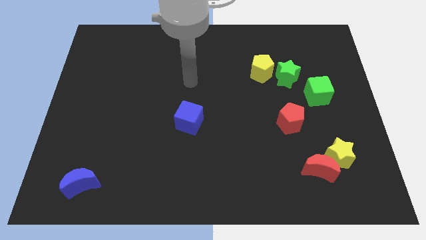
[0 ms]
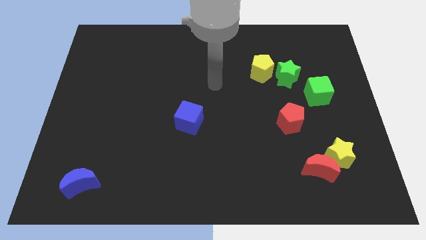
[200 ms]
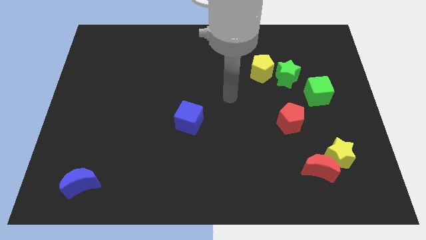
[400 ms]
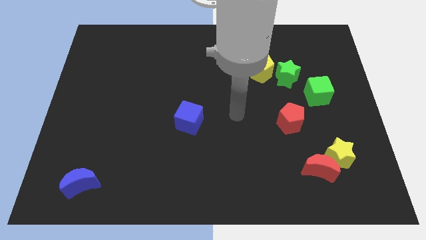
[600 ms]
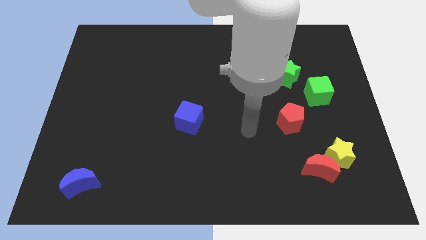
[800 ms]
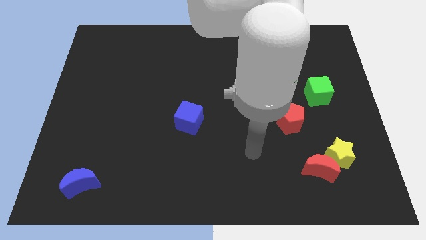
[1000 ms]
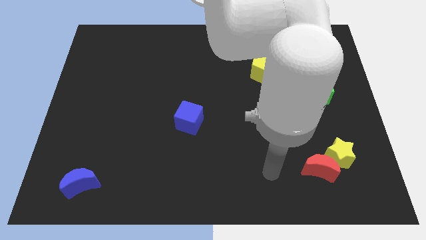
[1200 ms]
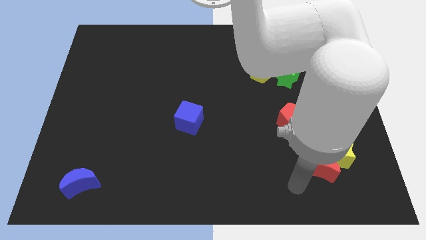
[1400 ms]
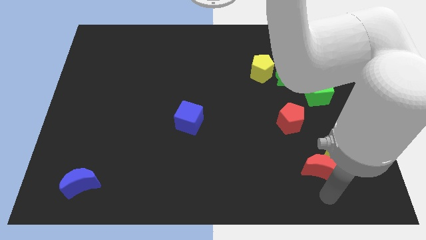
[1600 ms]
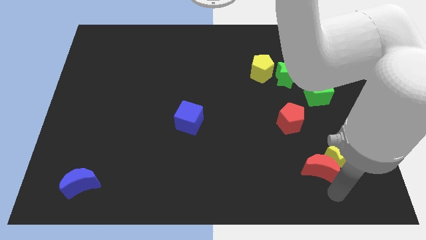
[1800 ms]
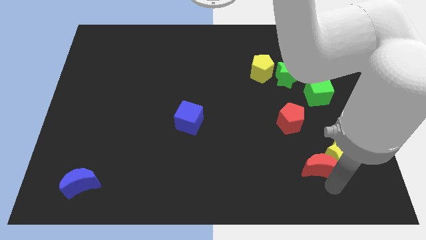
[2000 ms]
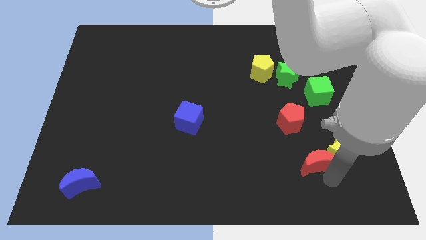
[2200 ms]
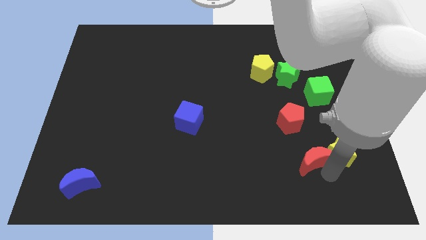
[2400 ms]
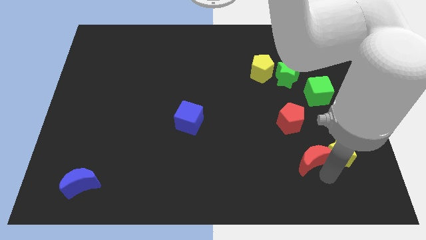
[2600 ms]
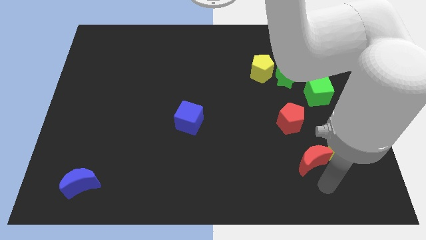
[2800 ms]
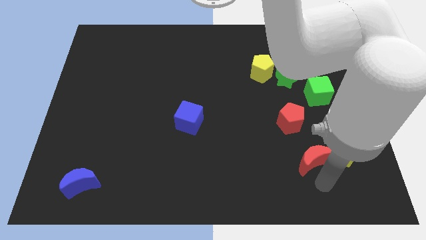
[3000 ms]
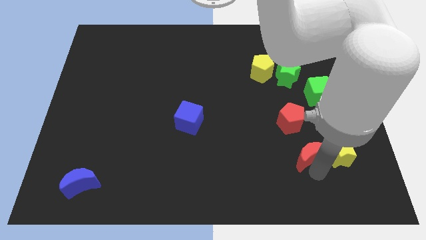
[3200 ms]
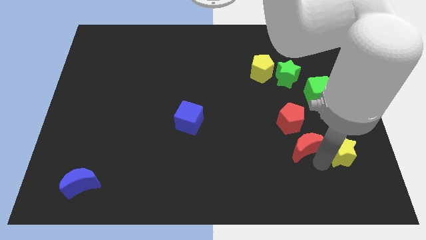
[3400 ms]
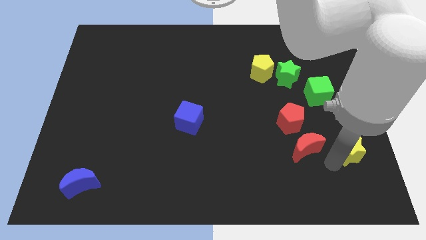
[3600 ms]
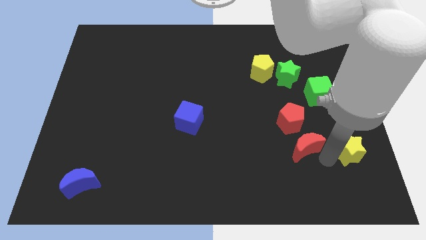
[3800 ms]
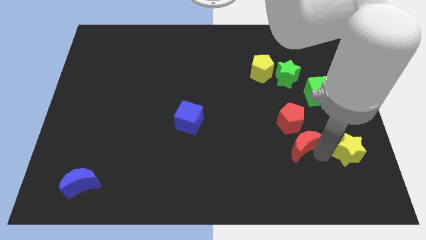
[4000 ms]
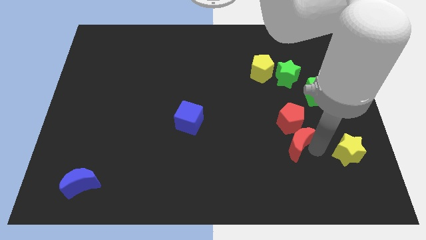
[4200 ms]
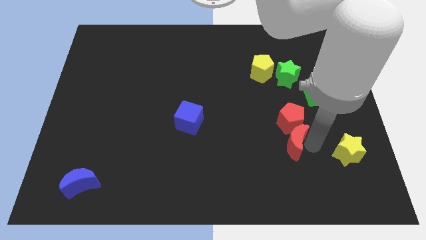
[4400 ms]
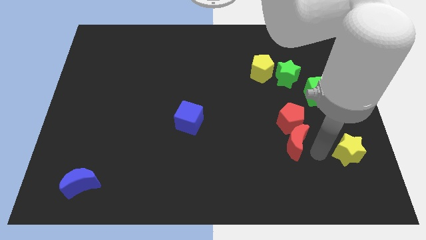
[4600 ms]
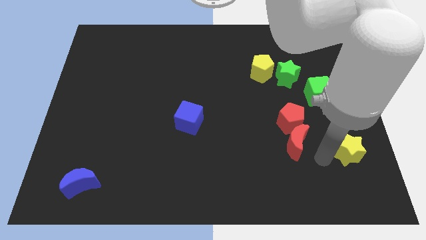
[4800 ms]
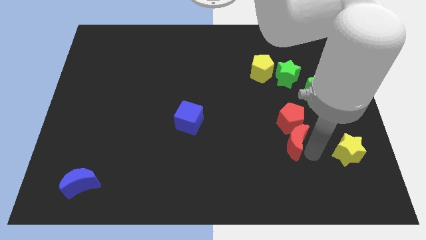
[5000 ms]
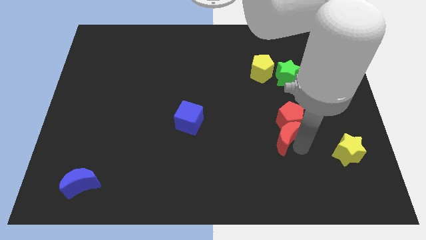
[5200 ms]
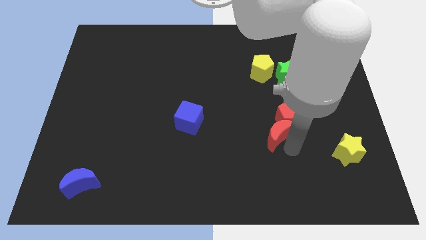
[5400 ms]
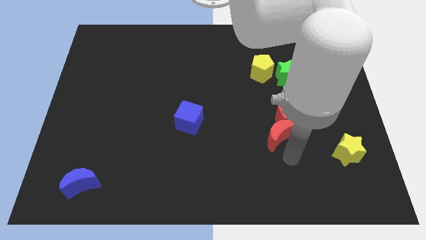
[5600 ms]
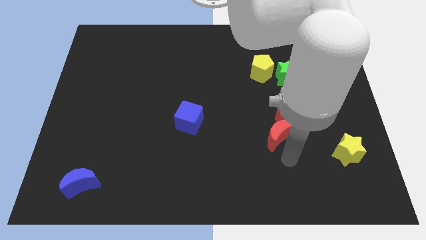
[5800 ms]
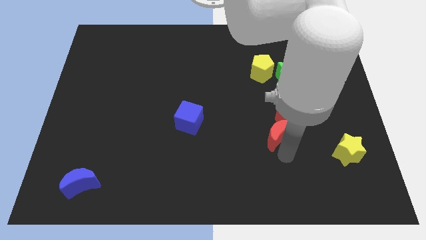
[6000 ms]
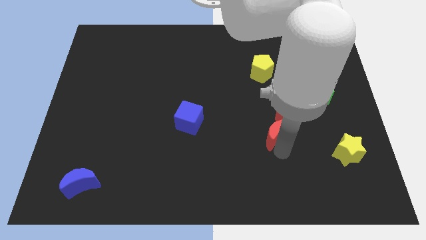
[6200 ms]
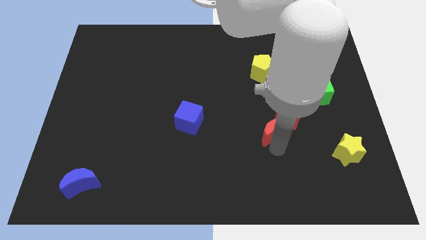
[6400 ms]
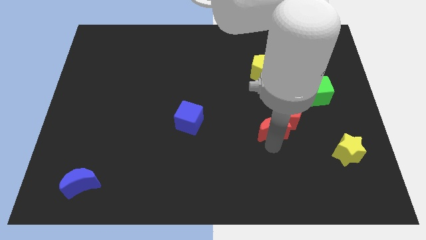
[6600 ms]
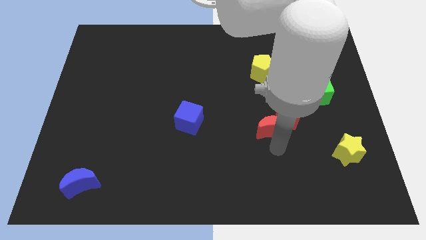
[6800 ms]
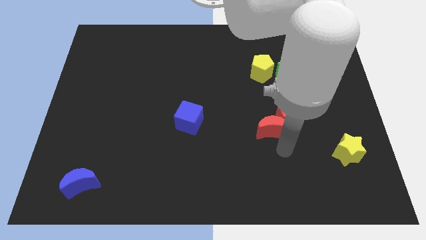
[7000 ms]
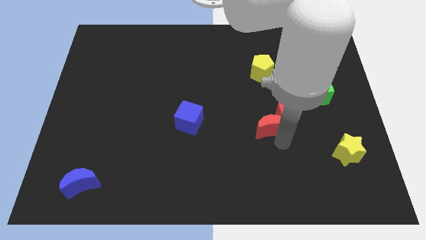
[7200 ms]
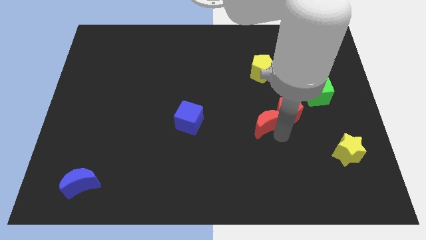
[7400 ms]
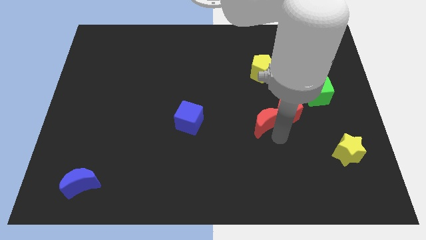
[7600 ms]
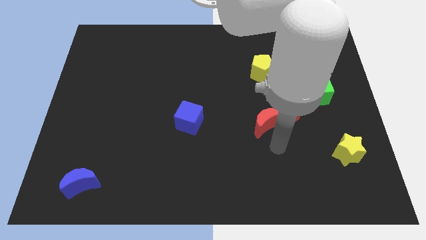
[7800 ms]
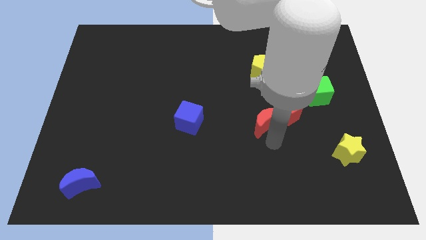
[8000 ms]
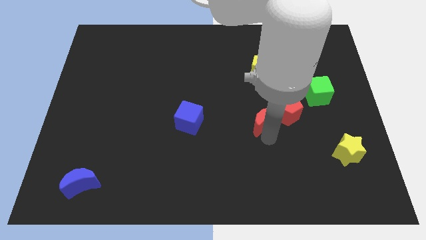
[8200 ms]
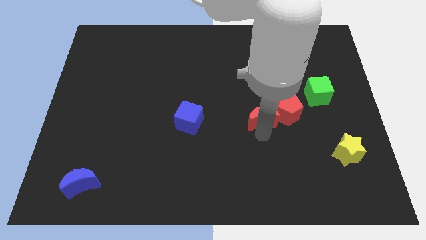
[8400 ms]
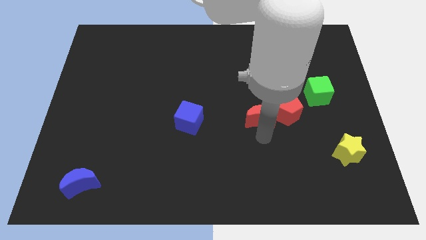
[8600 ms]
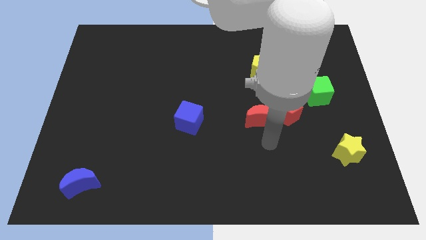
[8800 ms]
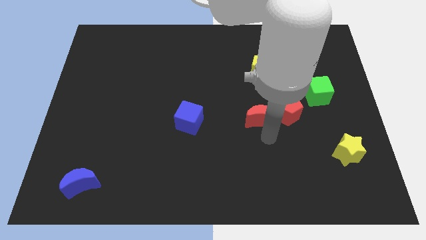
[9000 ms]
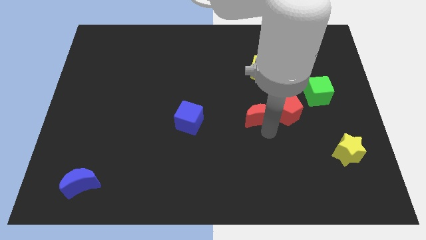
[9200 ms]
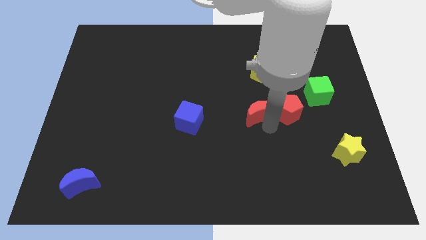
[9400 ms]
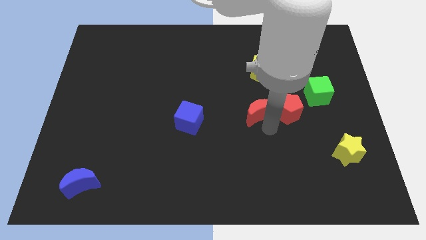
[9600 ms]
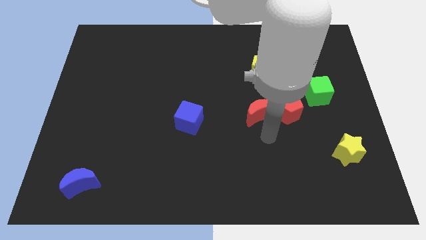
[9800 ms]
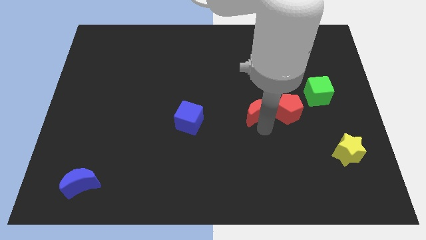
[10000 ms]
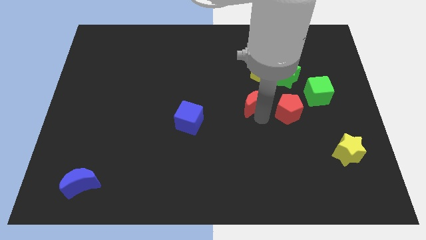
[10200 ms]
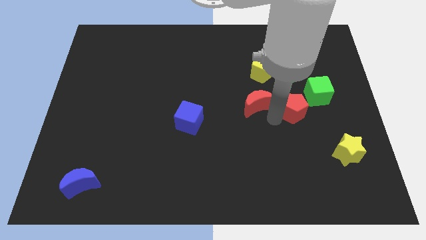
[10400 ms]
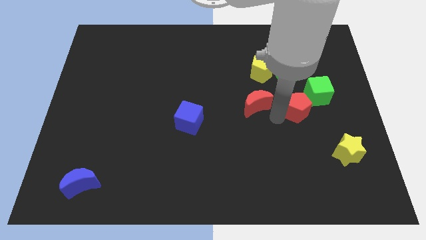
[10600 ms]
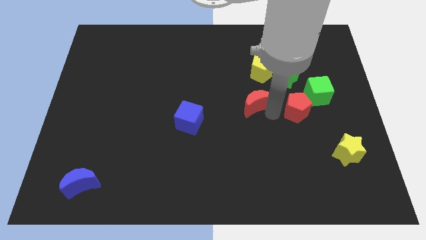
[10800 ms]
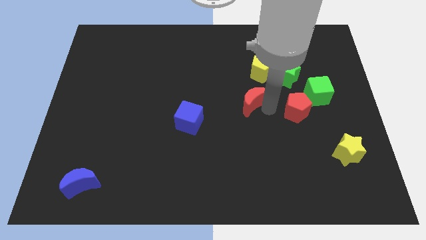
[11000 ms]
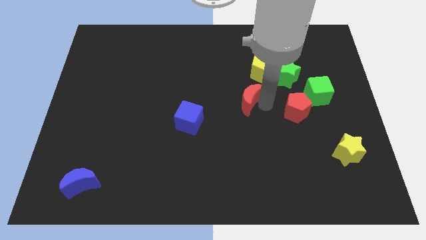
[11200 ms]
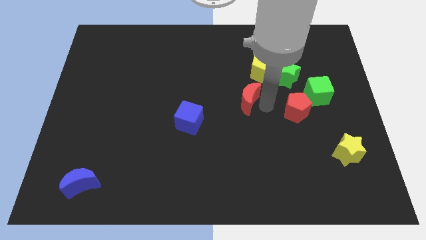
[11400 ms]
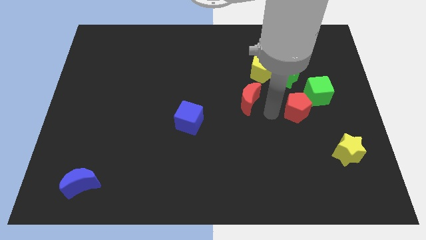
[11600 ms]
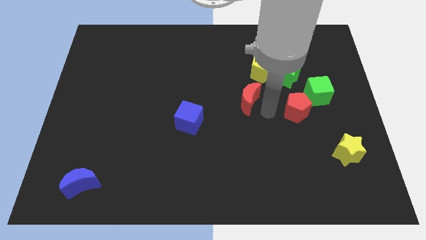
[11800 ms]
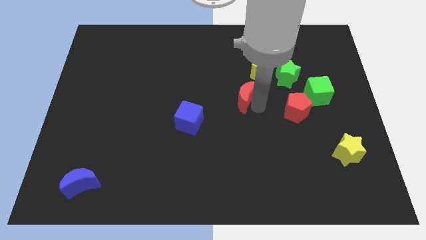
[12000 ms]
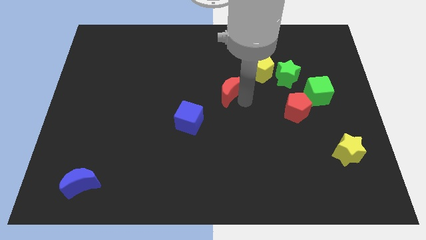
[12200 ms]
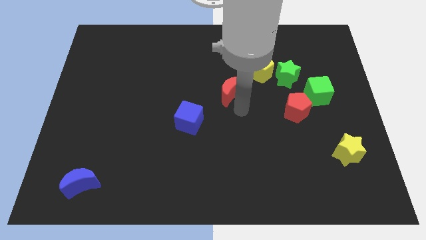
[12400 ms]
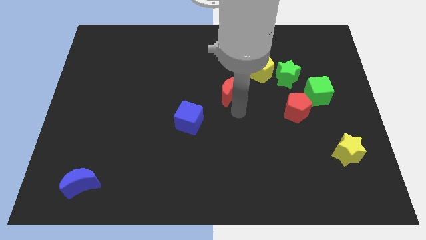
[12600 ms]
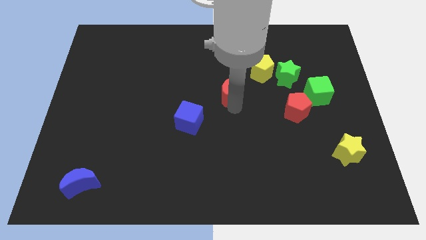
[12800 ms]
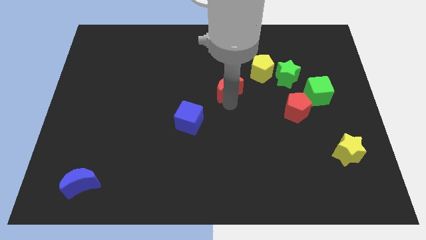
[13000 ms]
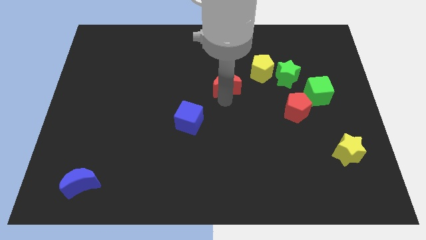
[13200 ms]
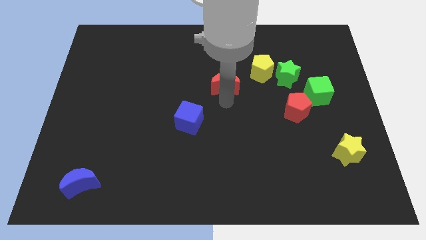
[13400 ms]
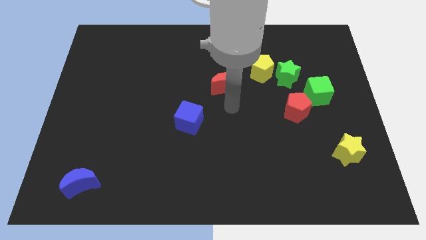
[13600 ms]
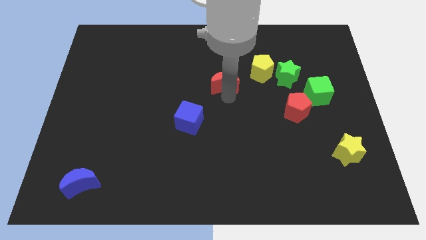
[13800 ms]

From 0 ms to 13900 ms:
push the red moon left of the yellow pentagon
